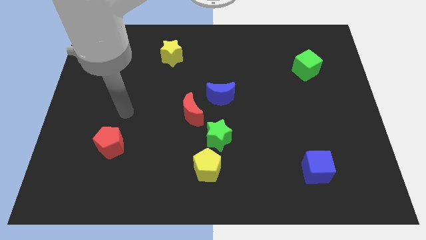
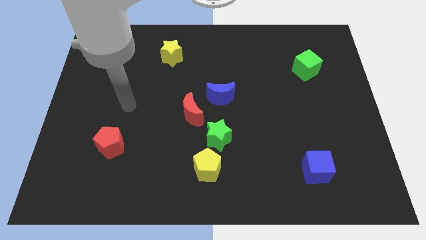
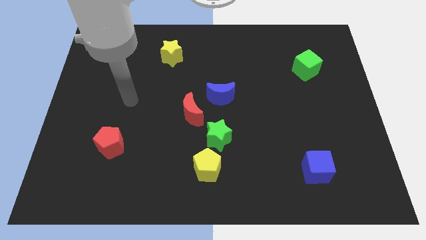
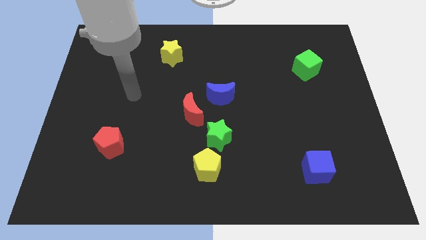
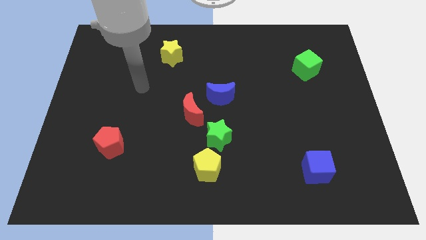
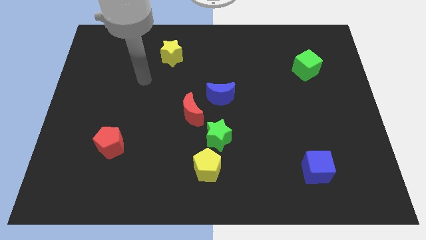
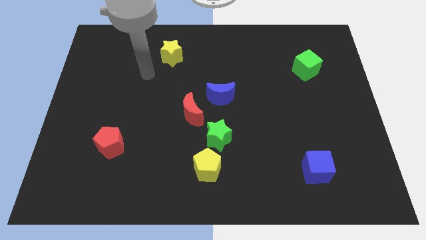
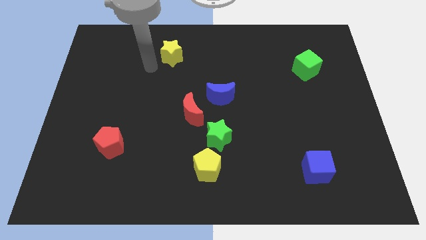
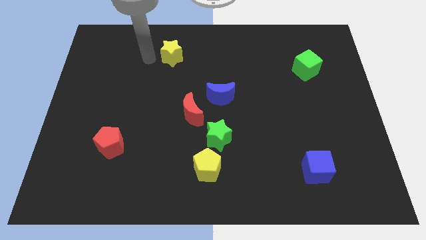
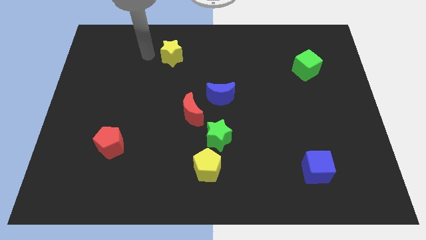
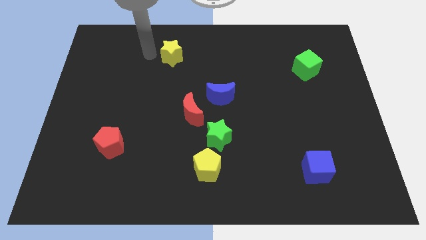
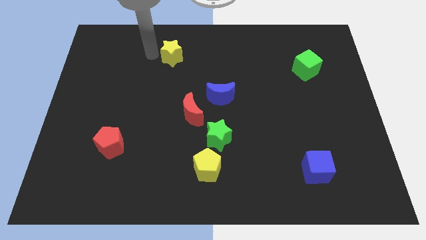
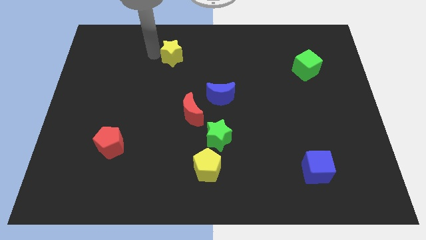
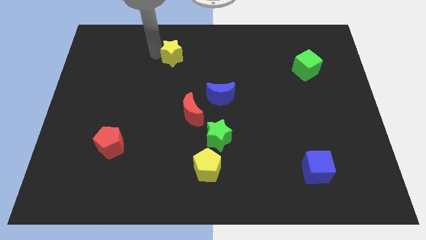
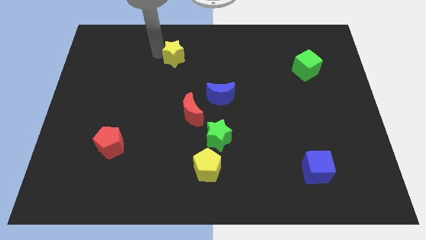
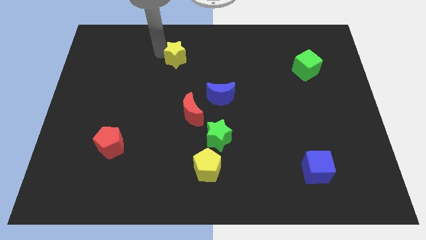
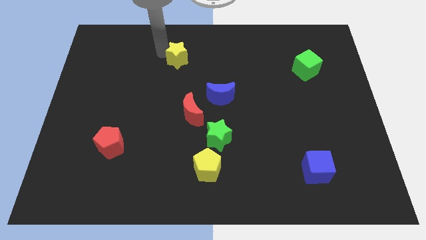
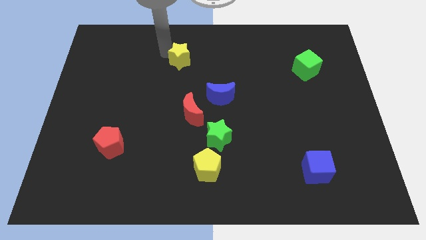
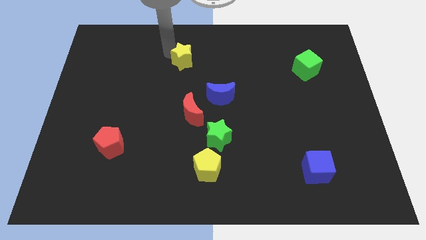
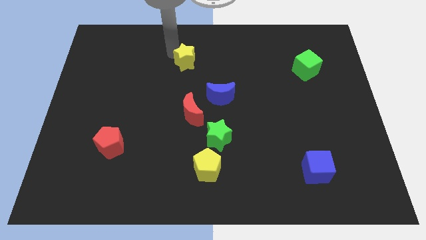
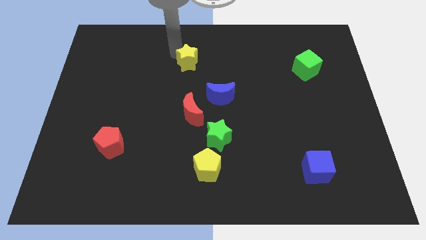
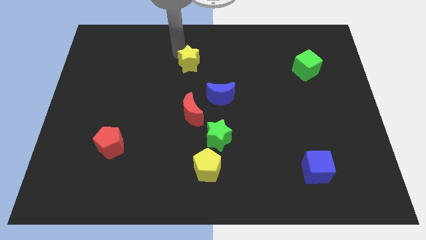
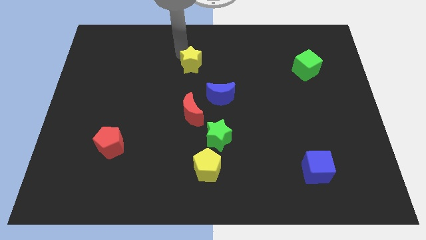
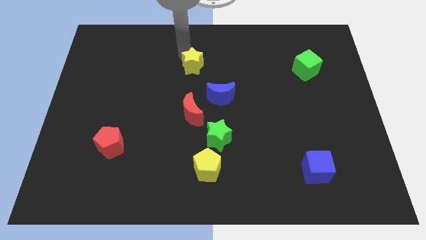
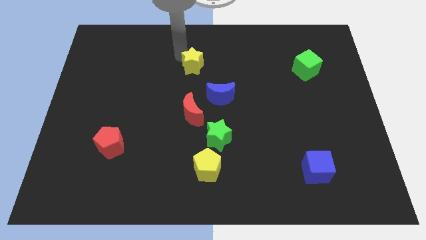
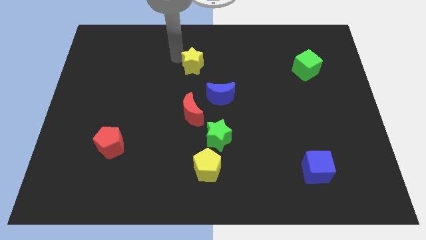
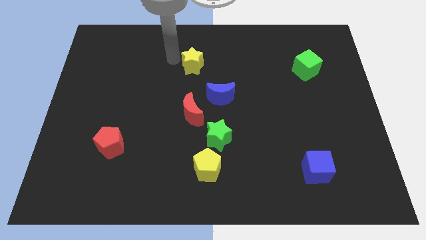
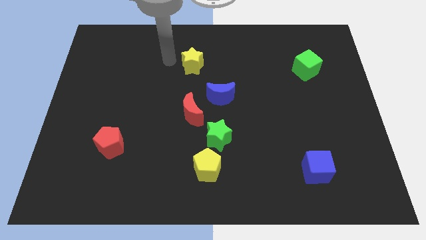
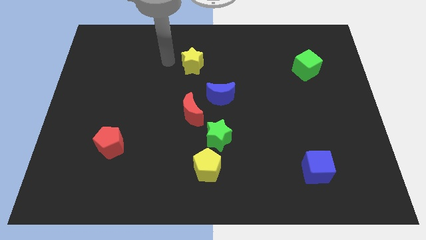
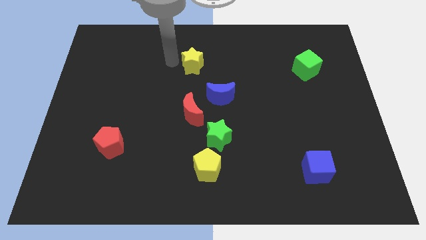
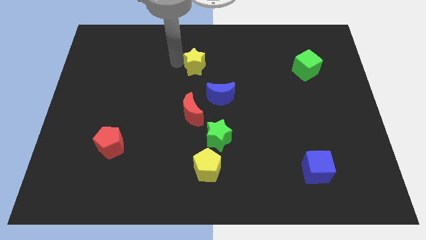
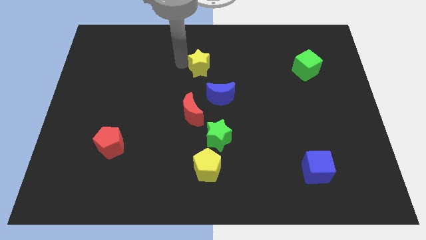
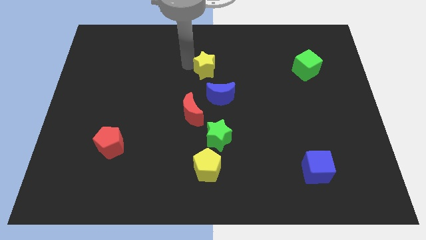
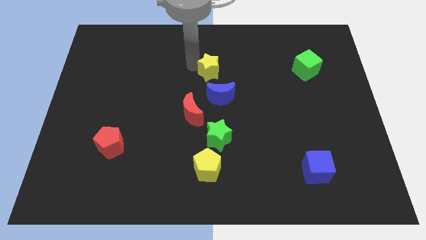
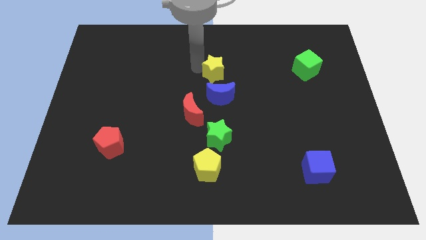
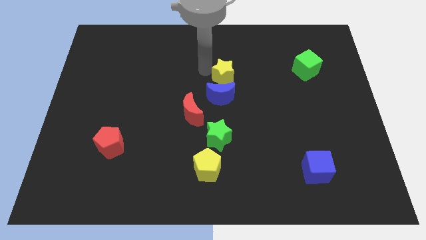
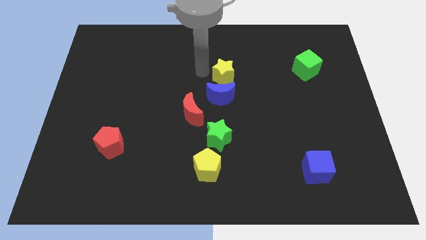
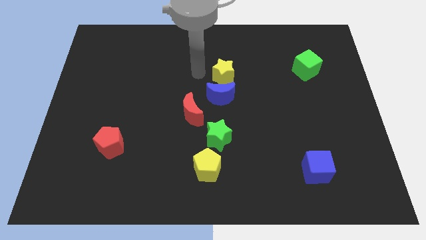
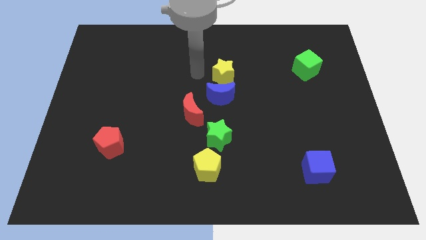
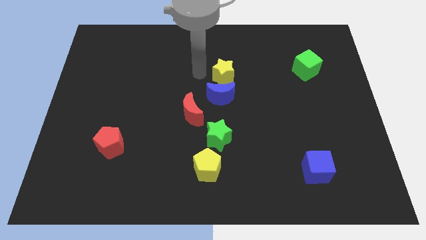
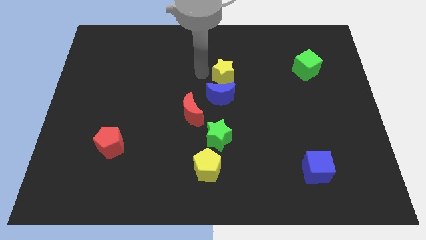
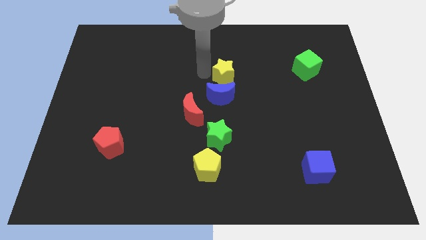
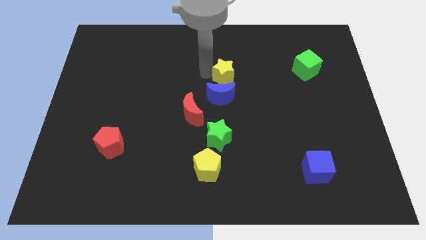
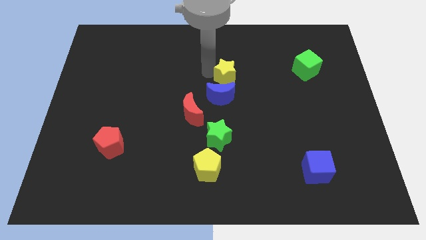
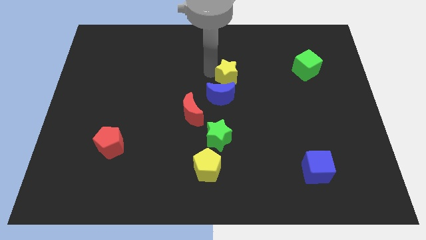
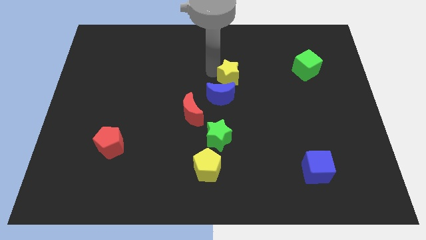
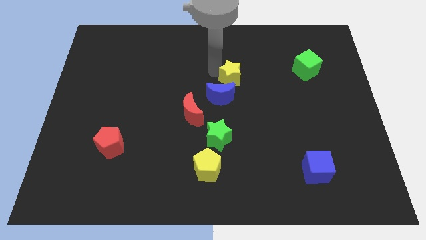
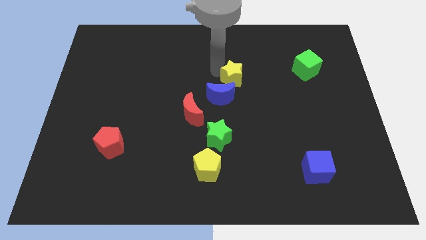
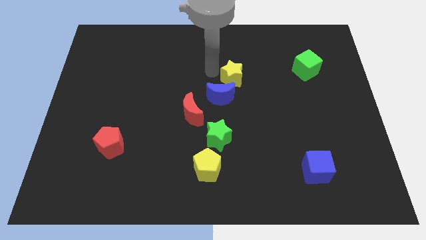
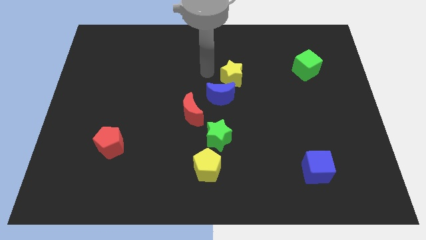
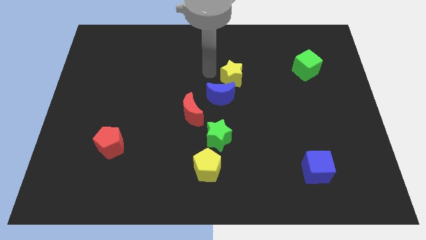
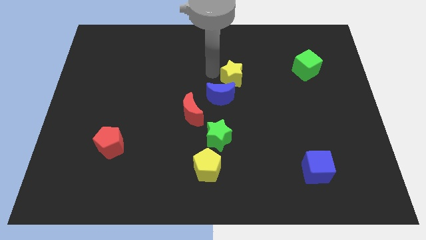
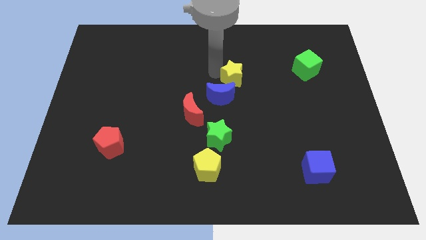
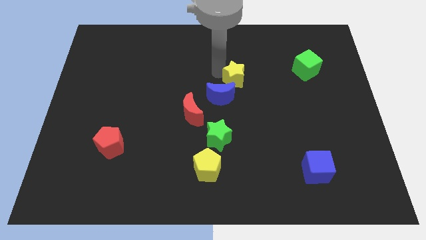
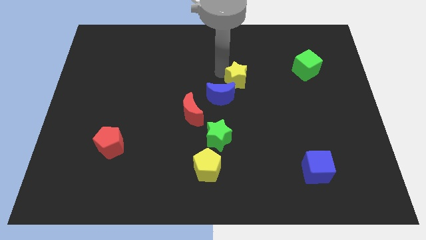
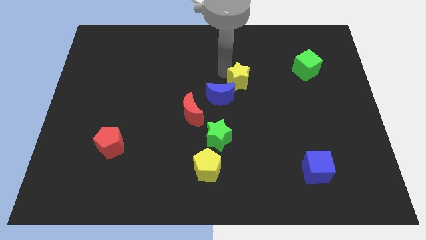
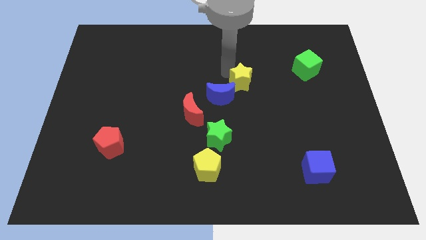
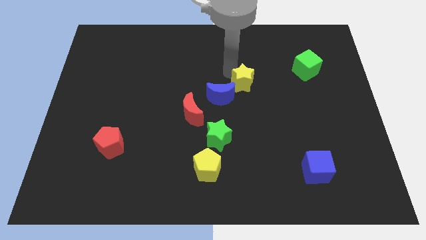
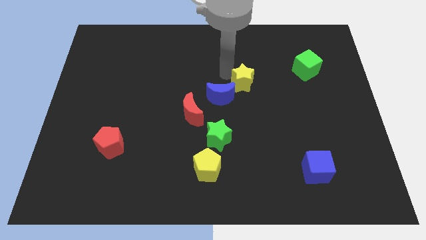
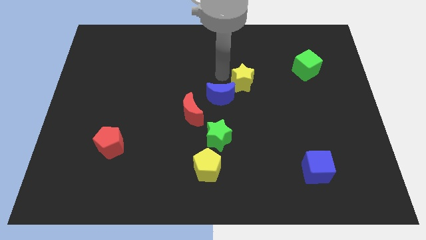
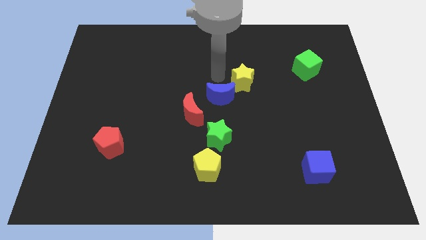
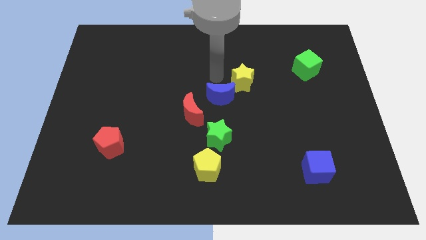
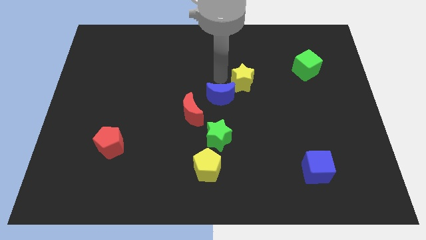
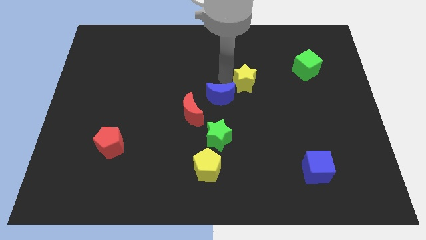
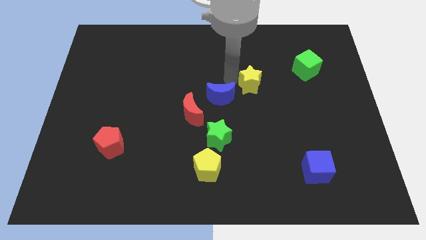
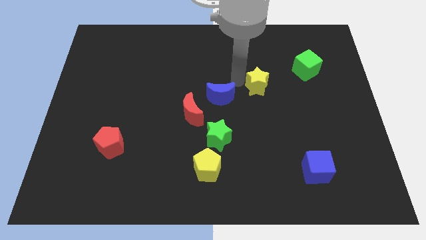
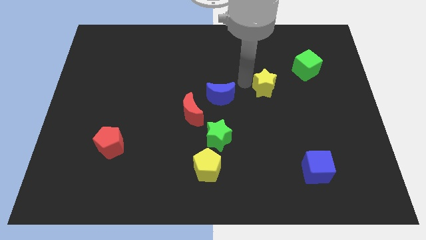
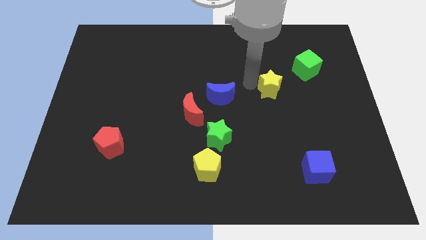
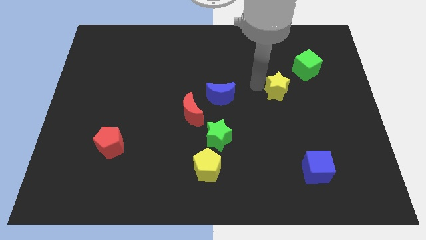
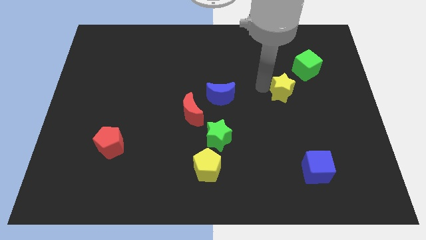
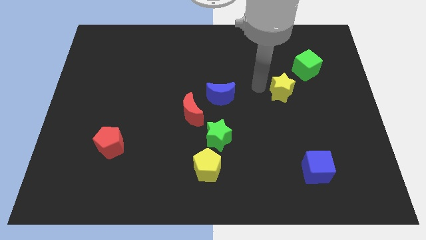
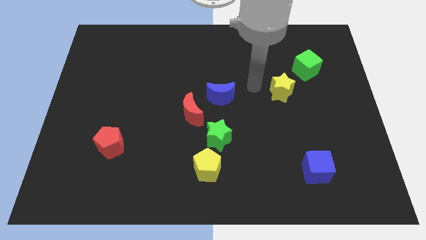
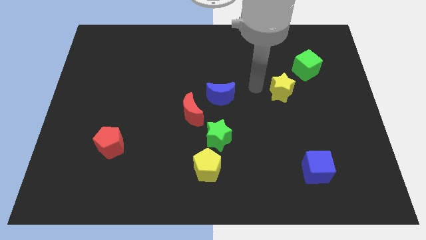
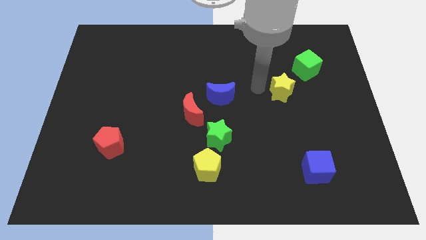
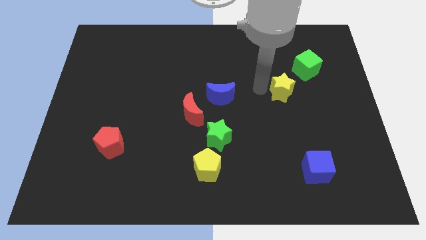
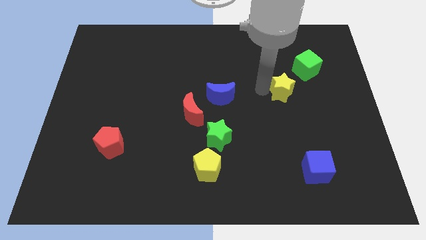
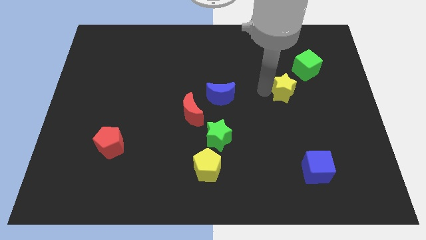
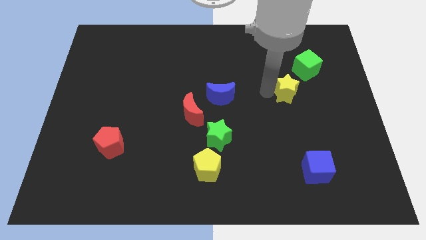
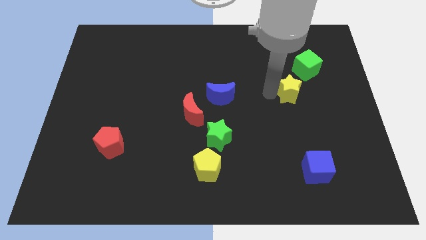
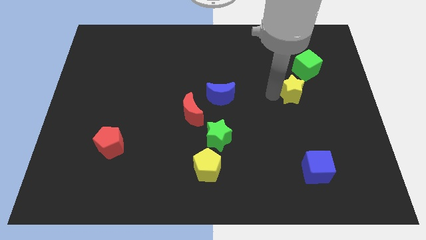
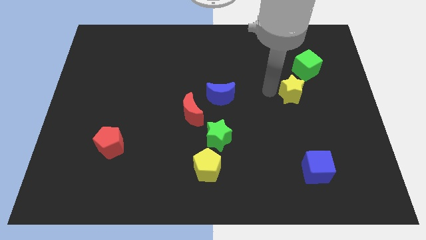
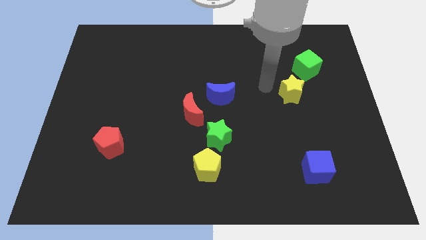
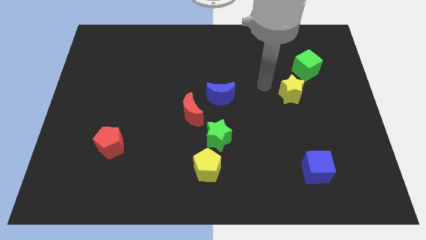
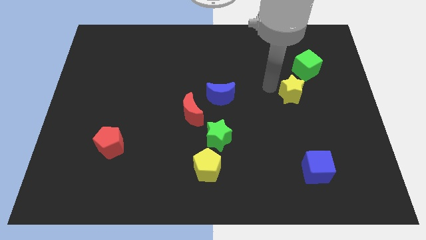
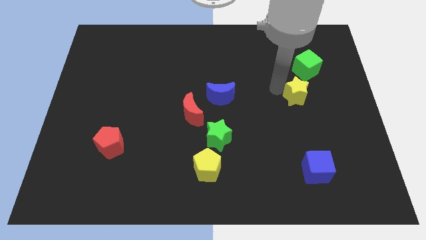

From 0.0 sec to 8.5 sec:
slide the yellow star to the bottom of the green cube
